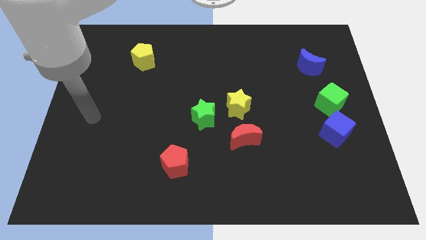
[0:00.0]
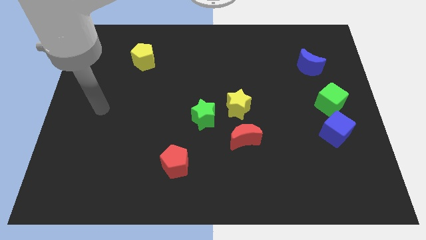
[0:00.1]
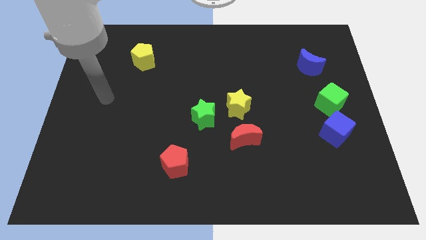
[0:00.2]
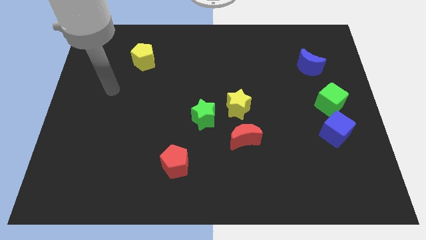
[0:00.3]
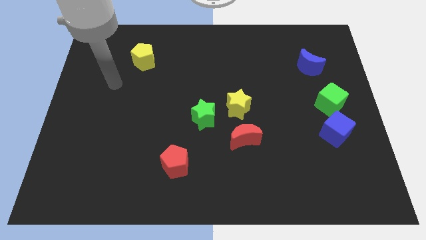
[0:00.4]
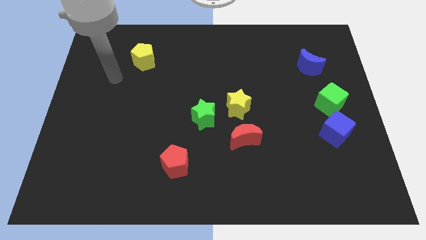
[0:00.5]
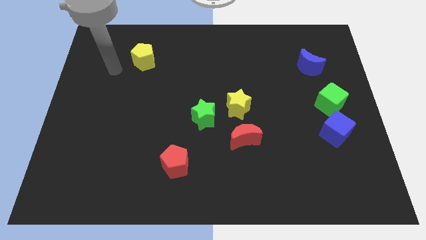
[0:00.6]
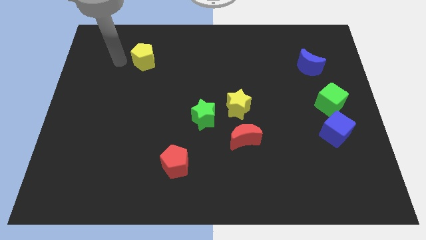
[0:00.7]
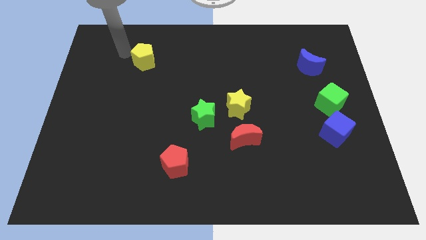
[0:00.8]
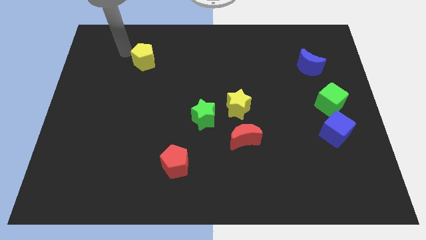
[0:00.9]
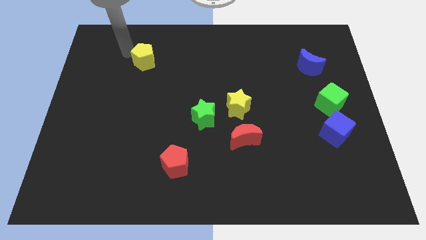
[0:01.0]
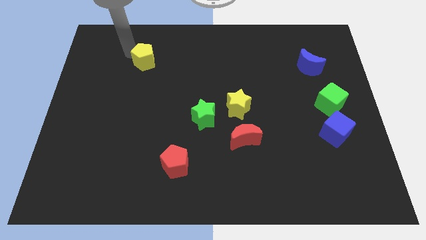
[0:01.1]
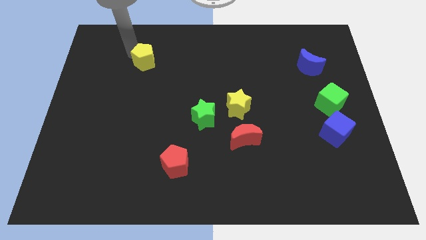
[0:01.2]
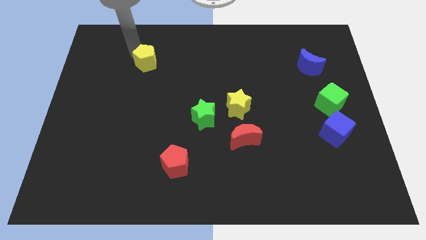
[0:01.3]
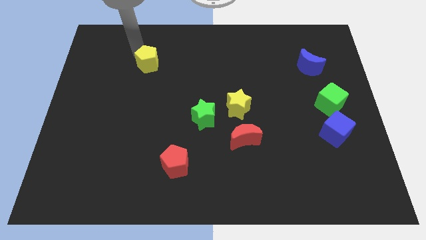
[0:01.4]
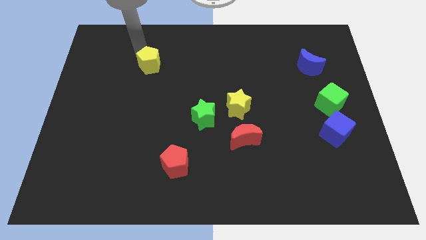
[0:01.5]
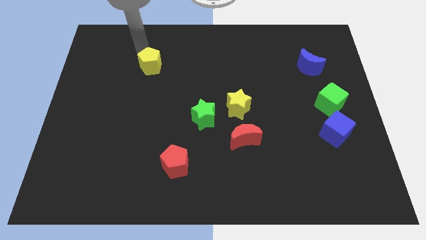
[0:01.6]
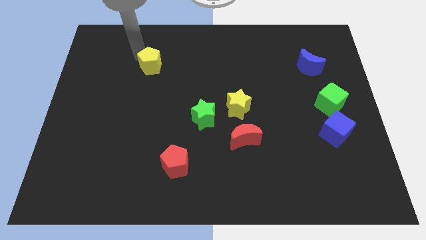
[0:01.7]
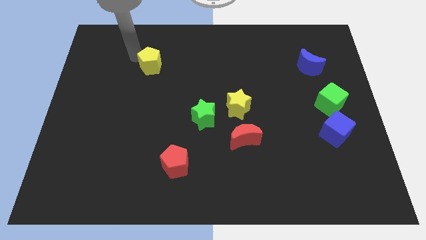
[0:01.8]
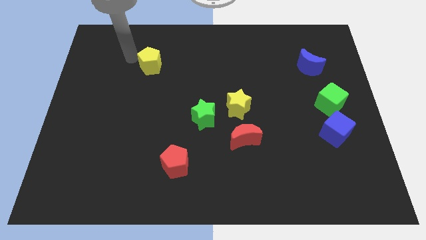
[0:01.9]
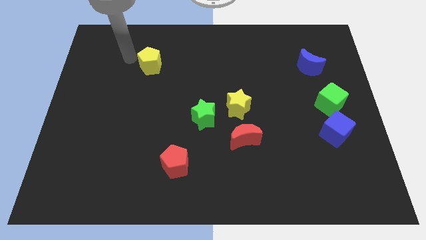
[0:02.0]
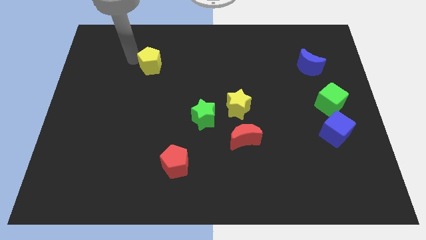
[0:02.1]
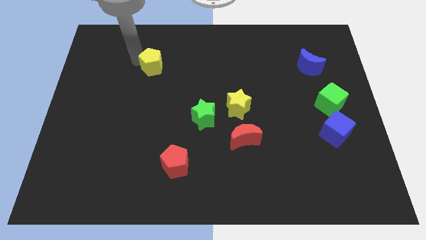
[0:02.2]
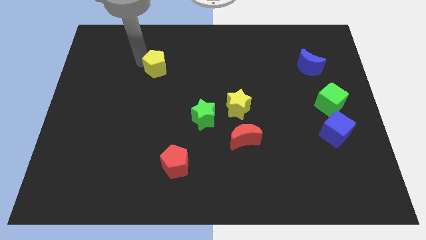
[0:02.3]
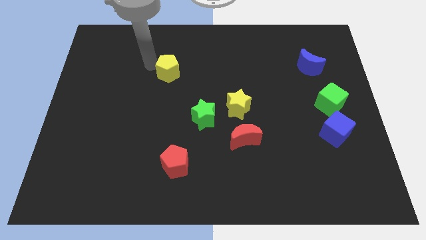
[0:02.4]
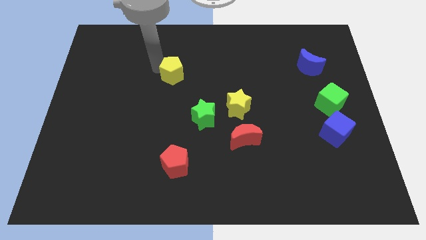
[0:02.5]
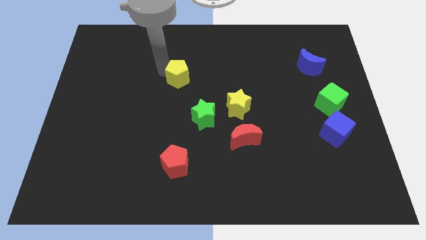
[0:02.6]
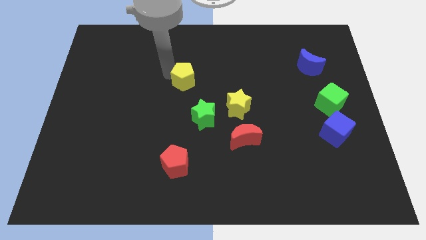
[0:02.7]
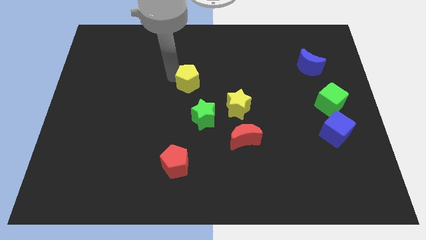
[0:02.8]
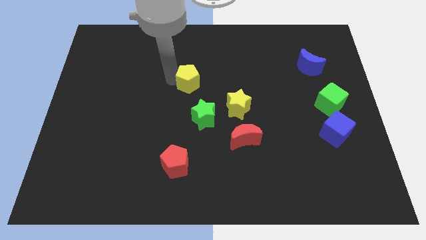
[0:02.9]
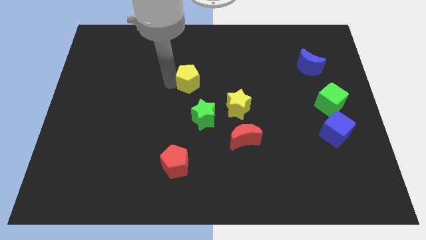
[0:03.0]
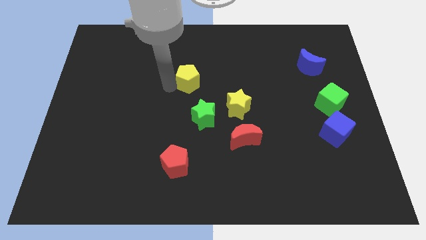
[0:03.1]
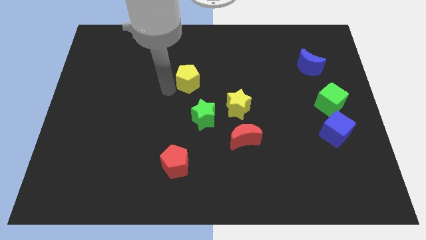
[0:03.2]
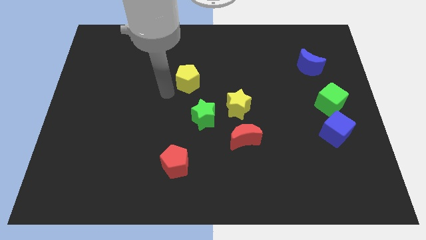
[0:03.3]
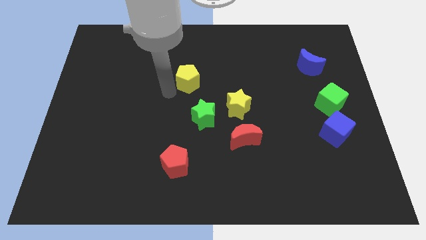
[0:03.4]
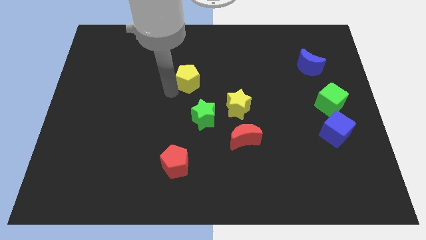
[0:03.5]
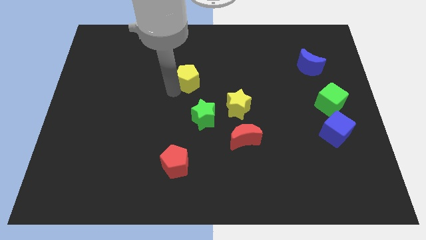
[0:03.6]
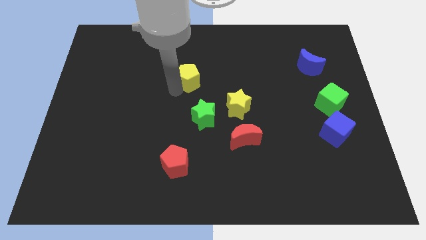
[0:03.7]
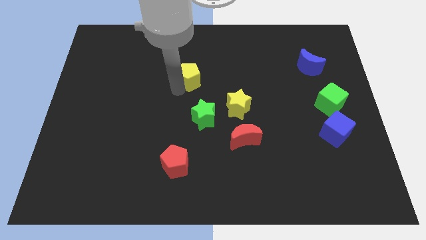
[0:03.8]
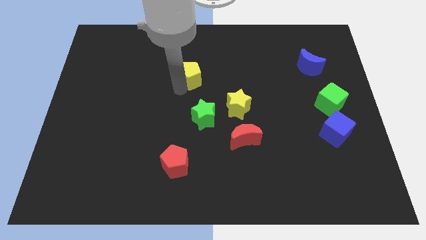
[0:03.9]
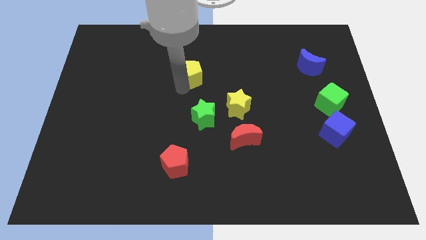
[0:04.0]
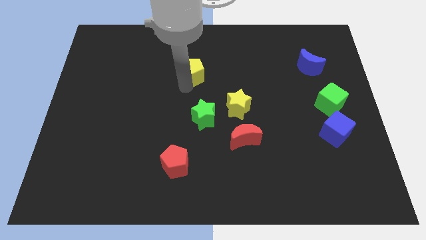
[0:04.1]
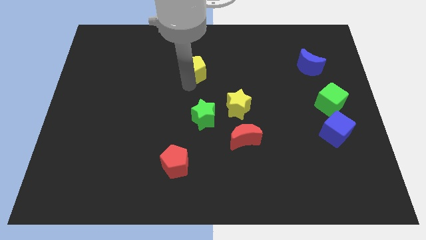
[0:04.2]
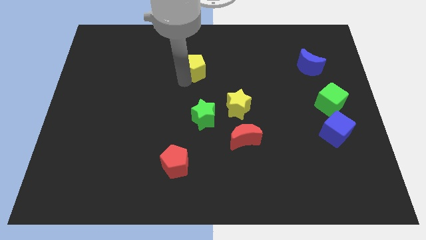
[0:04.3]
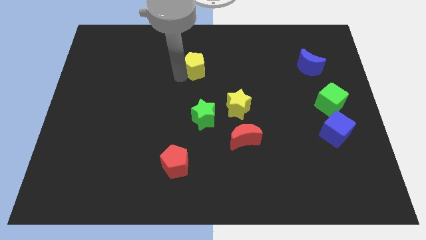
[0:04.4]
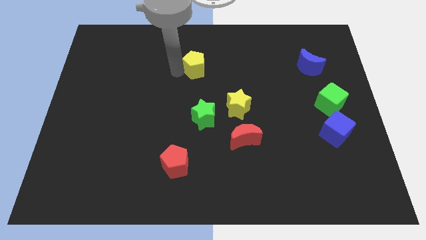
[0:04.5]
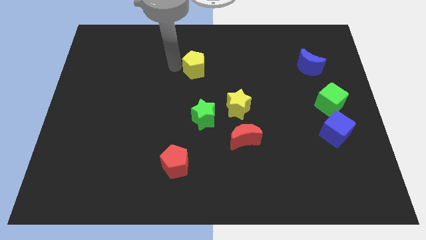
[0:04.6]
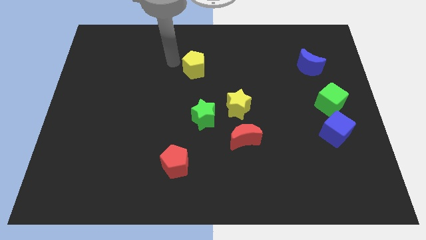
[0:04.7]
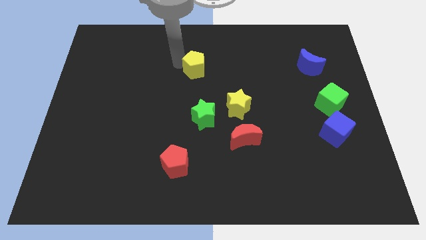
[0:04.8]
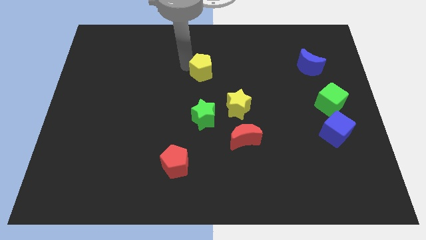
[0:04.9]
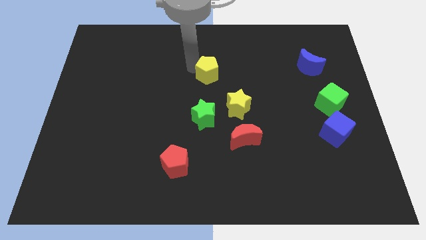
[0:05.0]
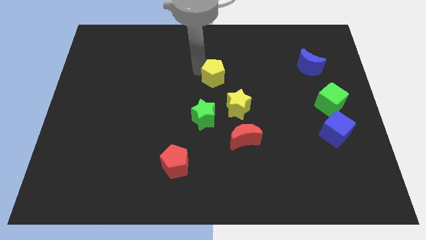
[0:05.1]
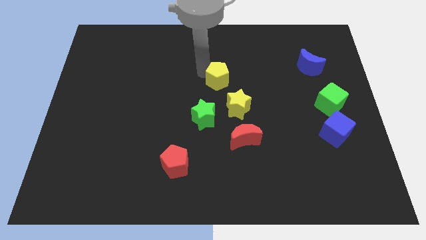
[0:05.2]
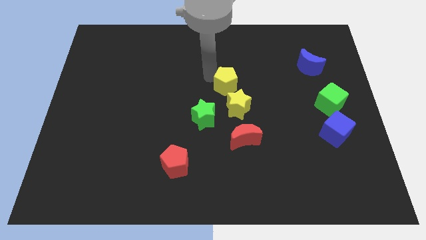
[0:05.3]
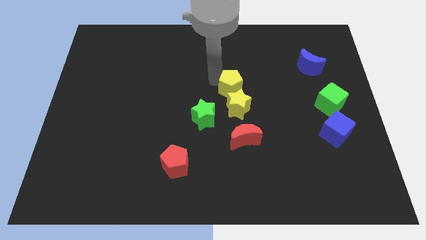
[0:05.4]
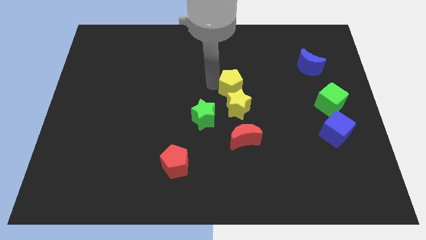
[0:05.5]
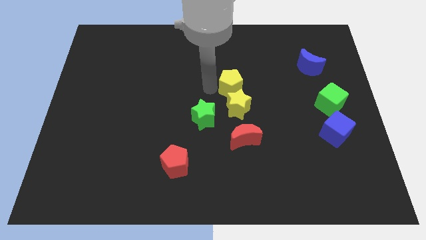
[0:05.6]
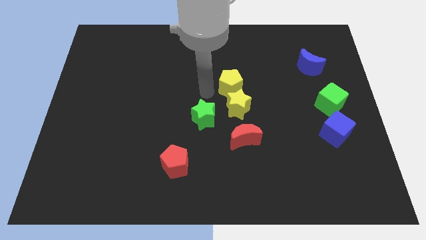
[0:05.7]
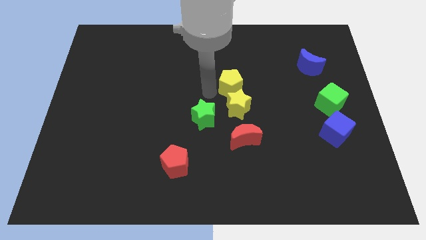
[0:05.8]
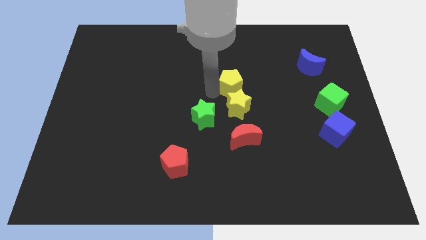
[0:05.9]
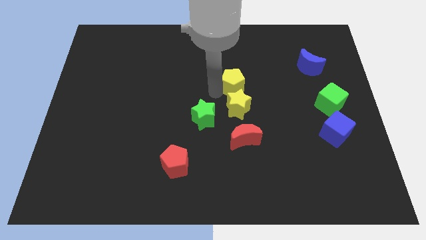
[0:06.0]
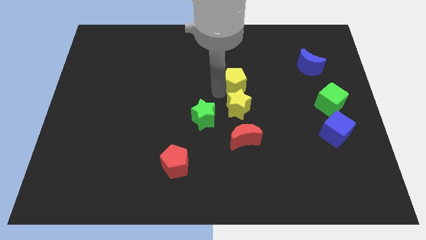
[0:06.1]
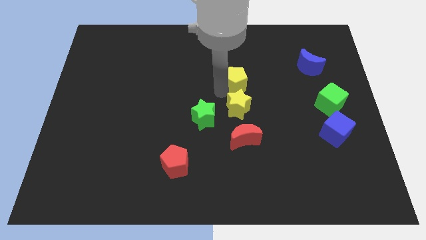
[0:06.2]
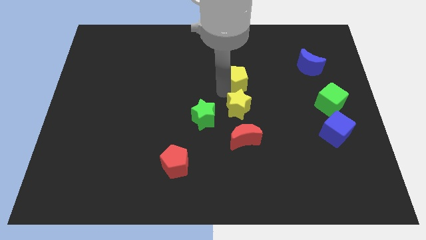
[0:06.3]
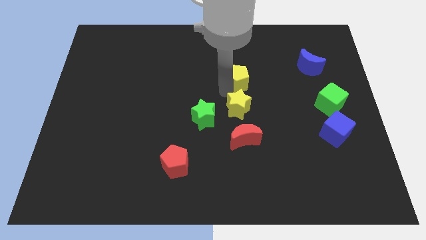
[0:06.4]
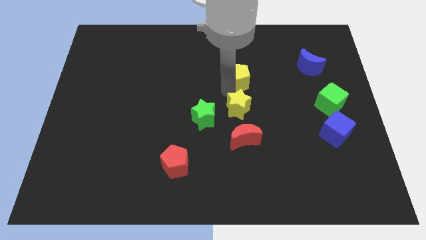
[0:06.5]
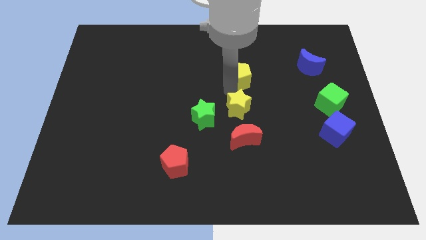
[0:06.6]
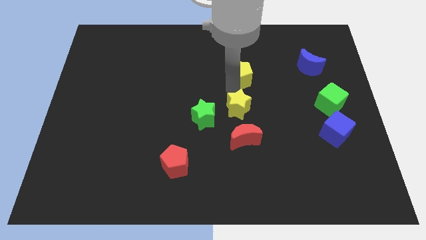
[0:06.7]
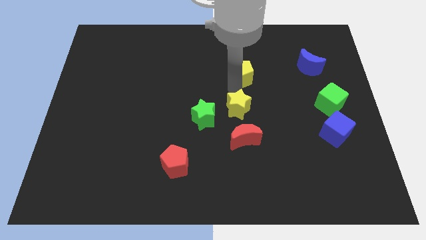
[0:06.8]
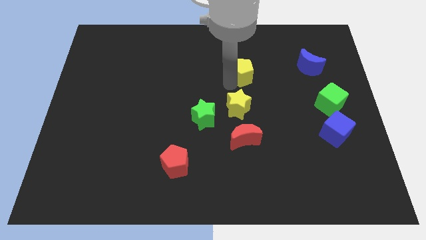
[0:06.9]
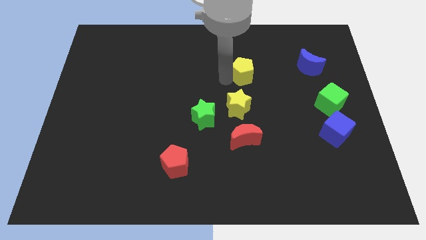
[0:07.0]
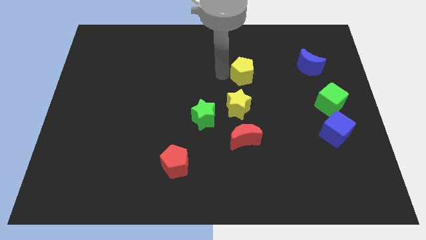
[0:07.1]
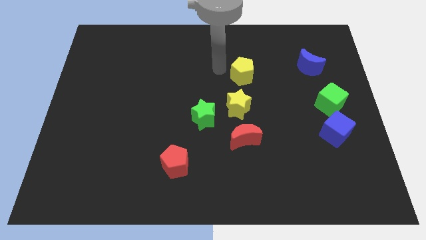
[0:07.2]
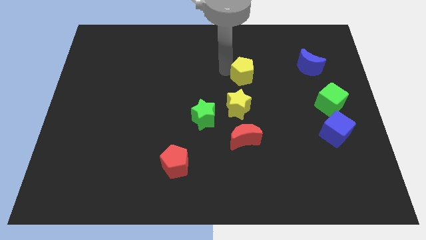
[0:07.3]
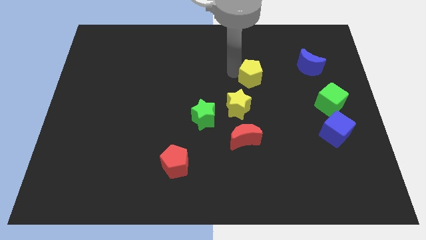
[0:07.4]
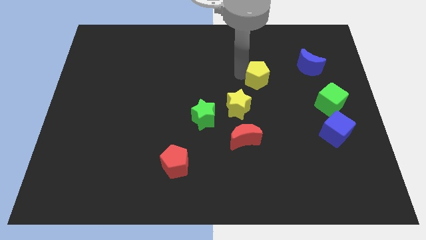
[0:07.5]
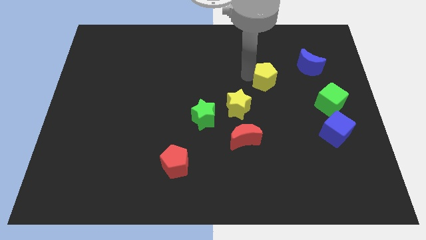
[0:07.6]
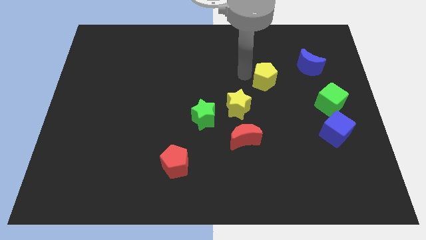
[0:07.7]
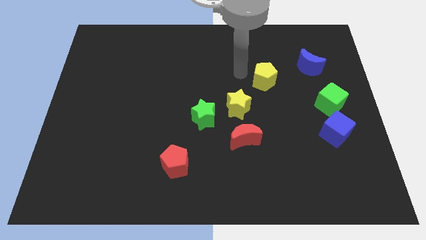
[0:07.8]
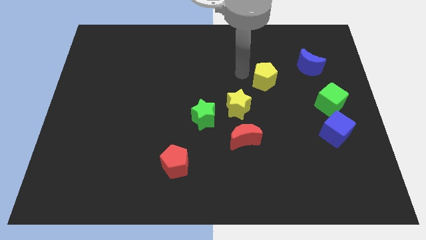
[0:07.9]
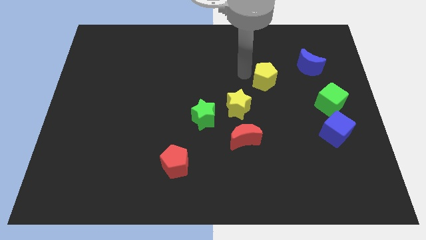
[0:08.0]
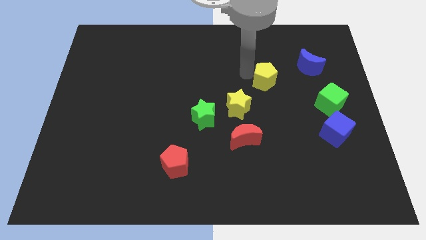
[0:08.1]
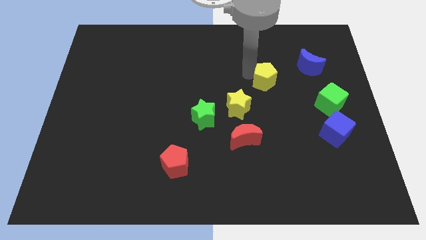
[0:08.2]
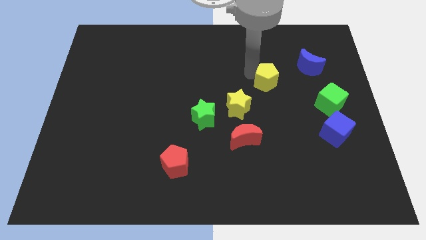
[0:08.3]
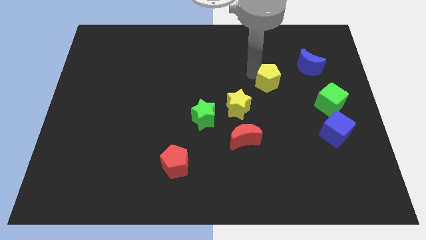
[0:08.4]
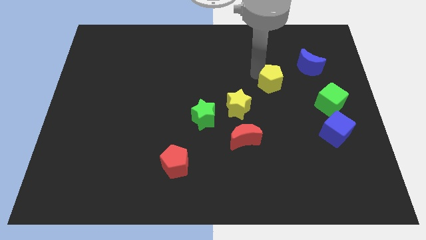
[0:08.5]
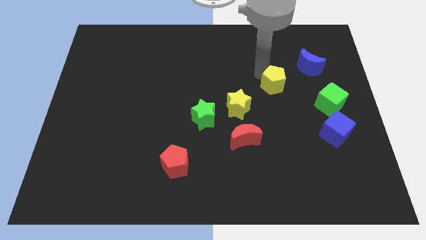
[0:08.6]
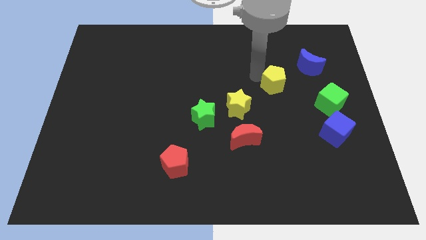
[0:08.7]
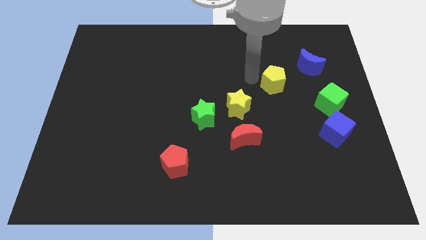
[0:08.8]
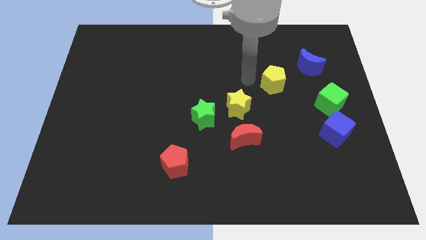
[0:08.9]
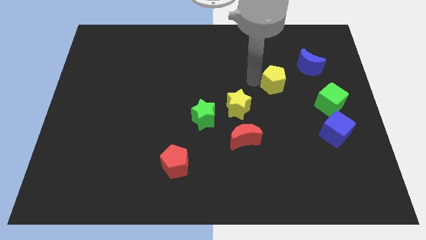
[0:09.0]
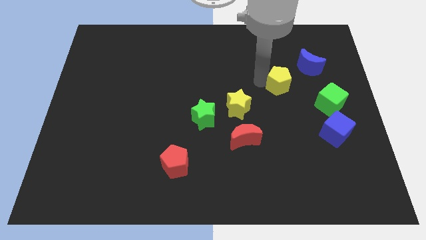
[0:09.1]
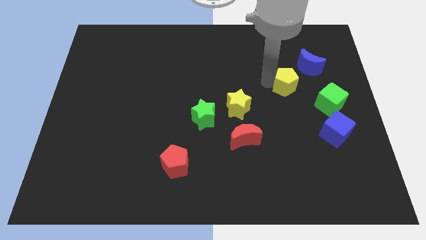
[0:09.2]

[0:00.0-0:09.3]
move the yellow pentagon to the top left of the green cube
